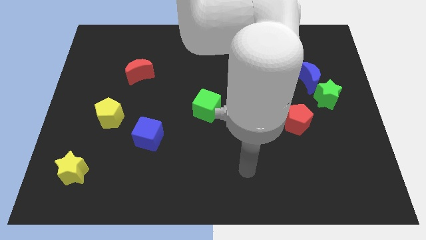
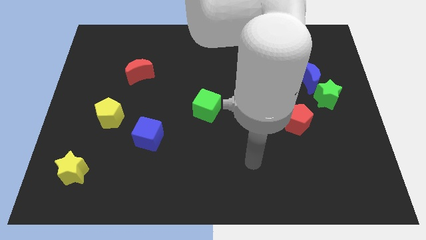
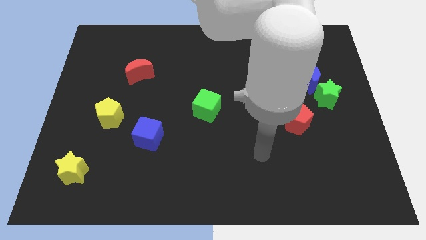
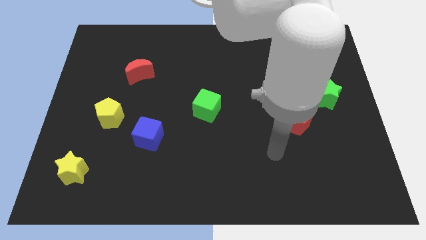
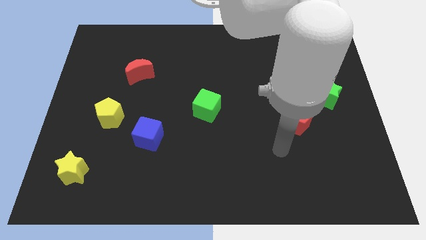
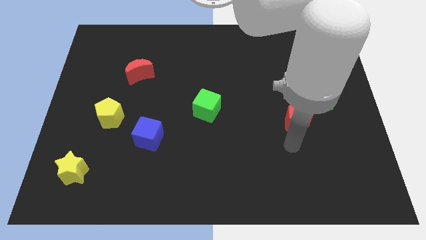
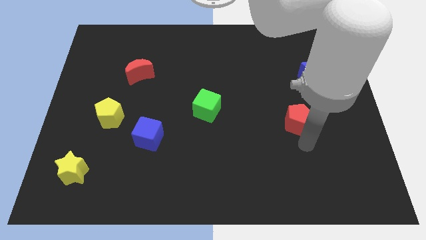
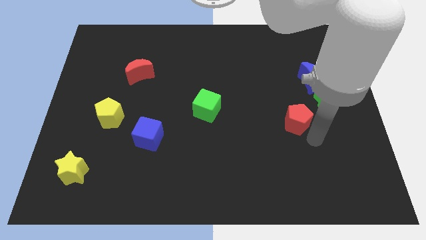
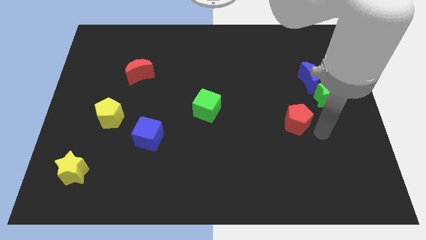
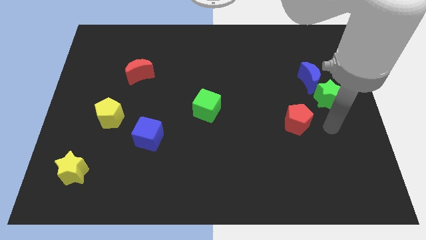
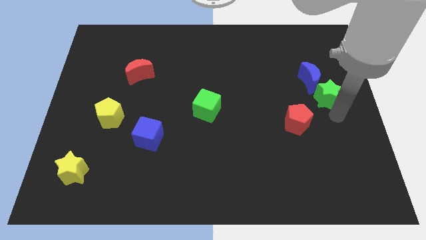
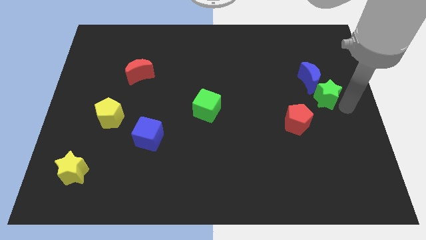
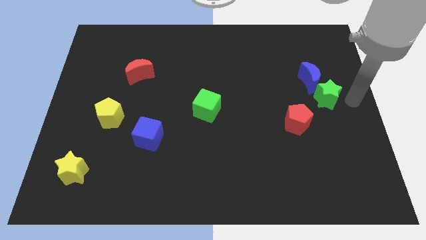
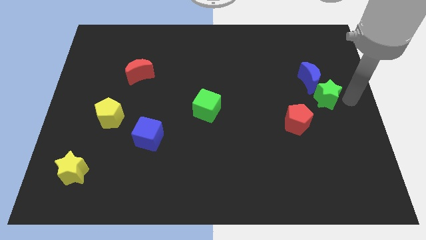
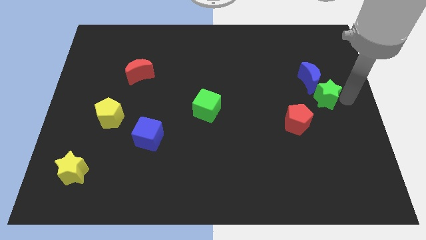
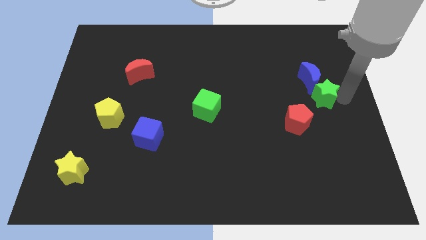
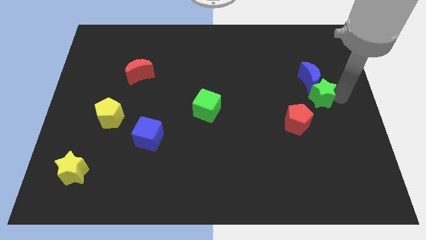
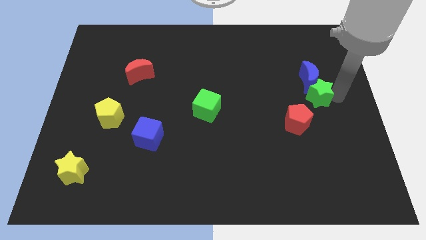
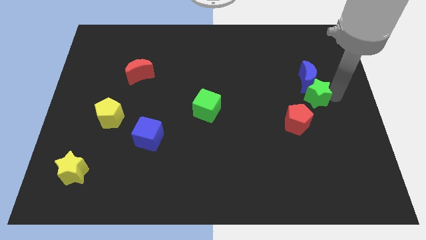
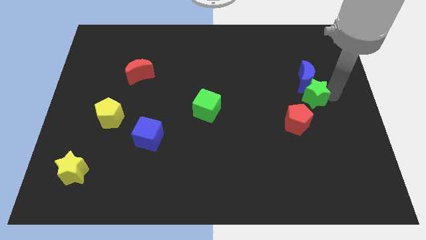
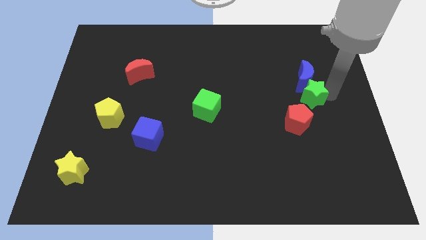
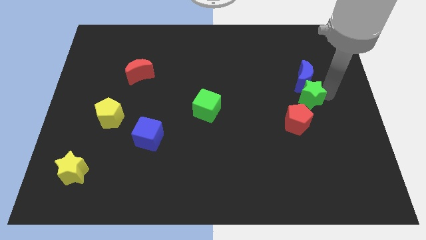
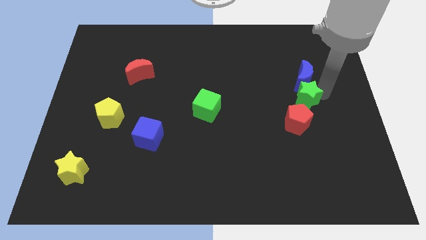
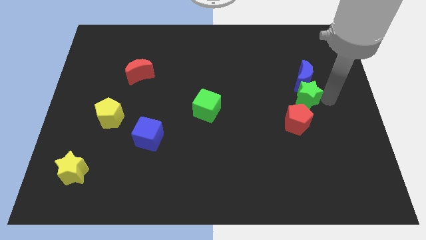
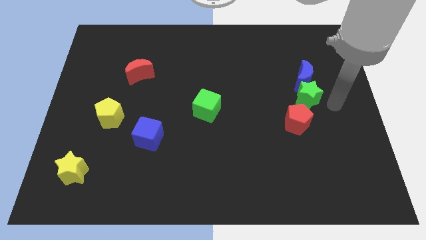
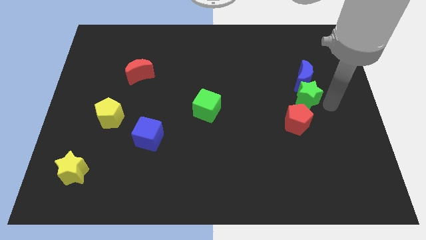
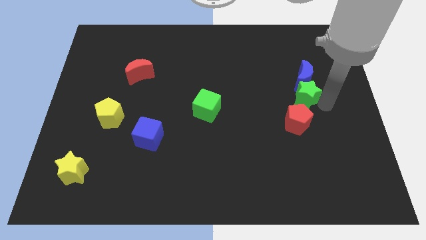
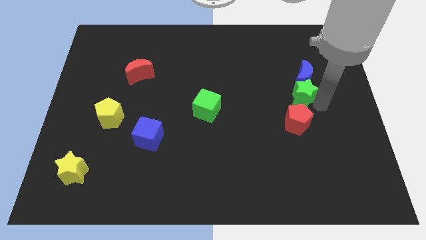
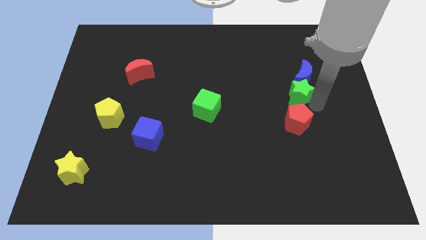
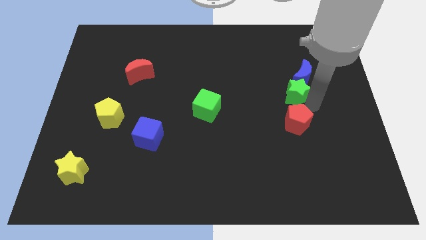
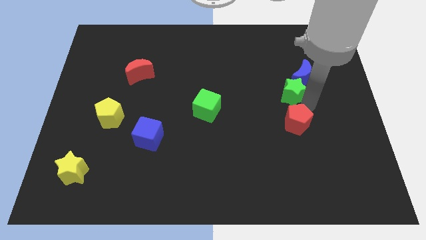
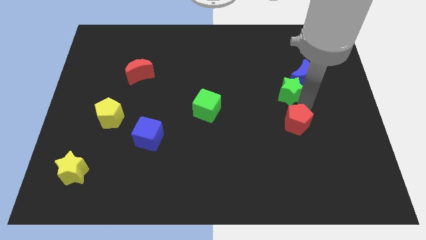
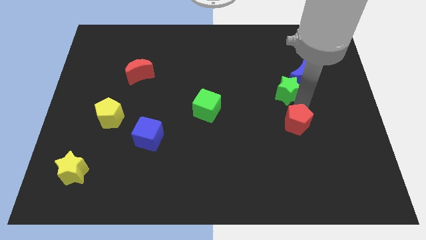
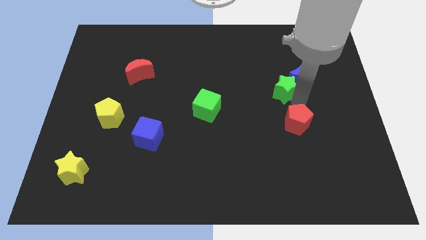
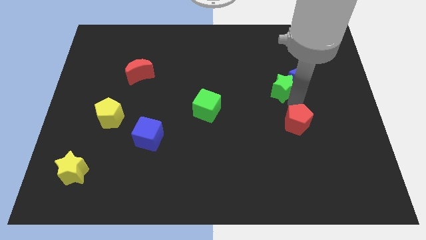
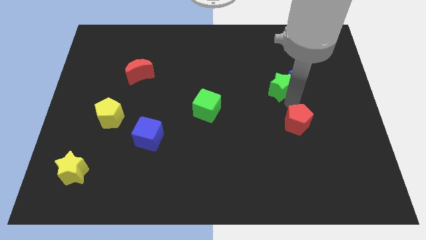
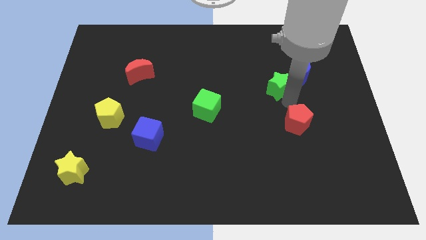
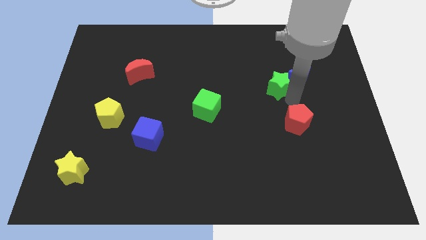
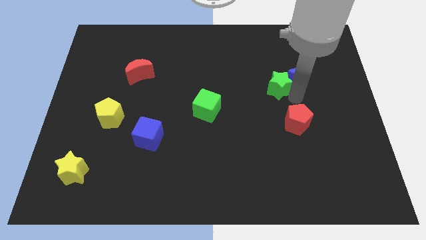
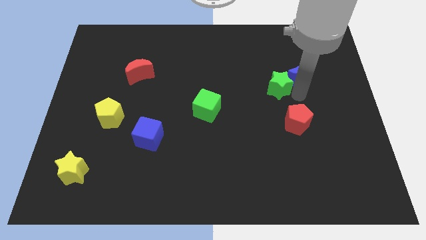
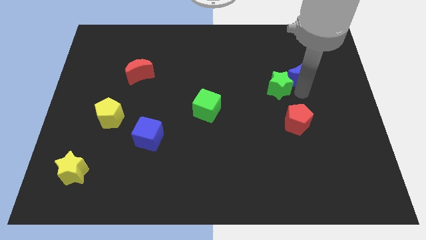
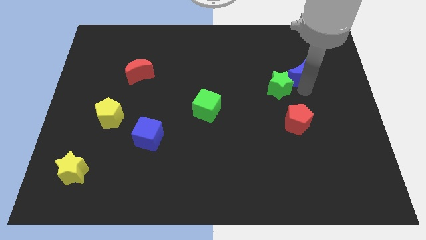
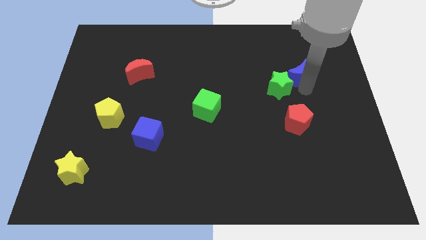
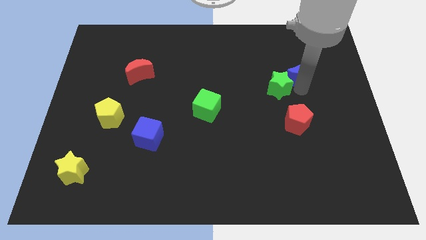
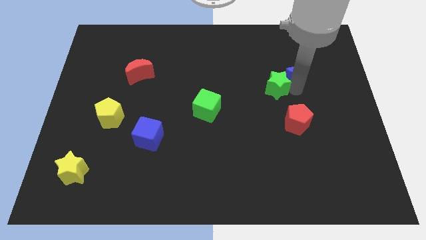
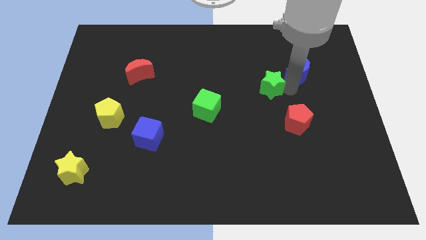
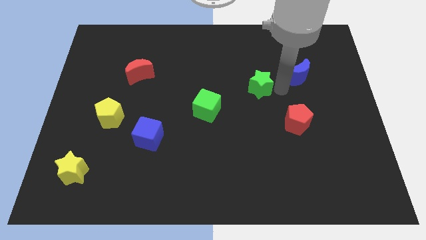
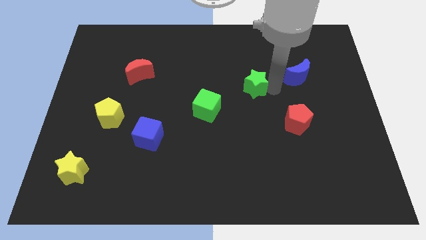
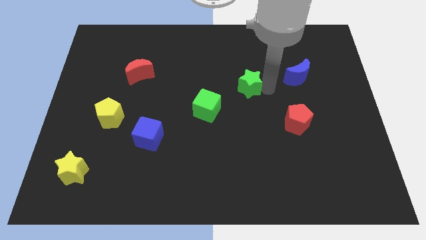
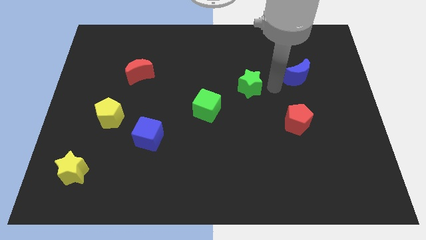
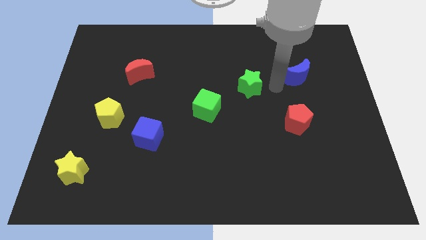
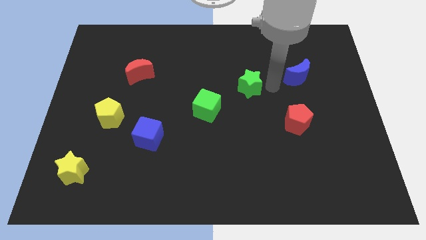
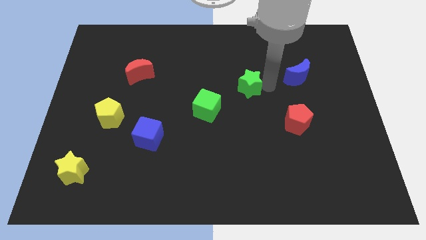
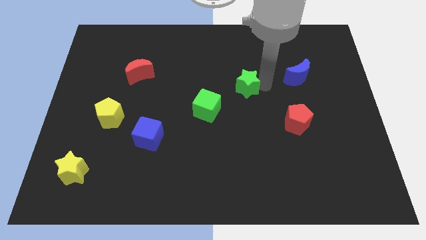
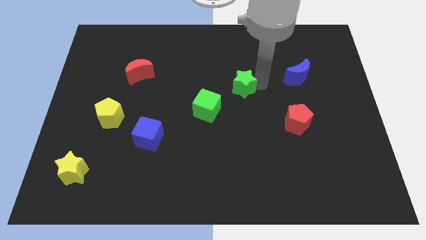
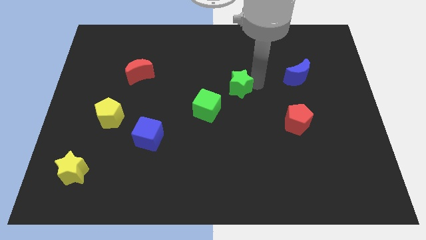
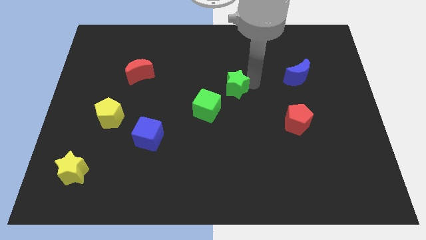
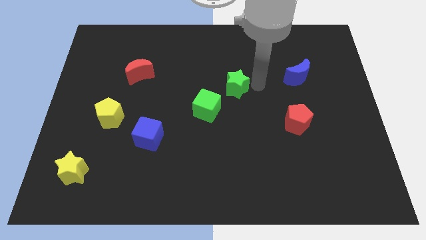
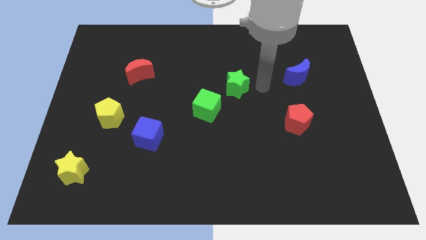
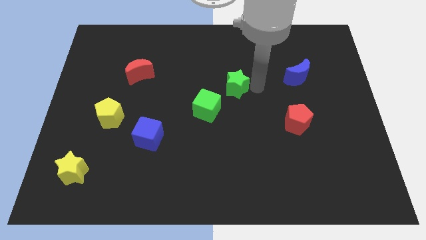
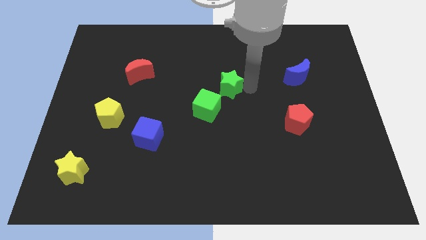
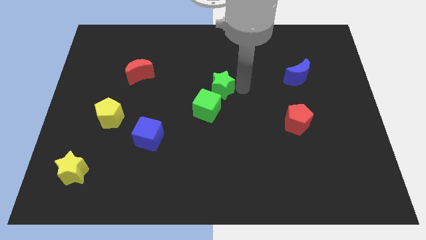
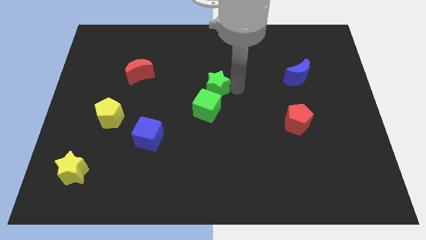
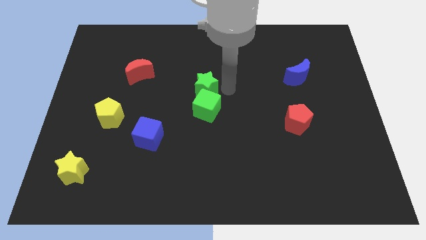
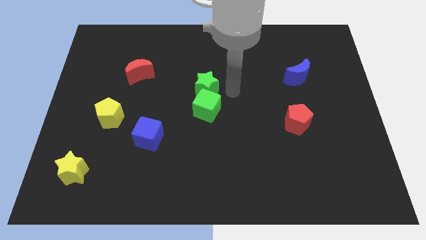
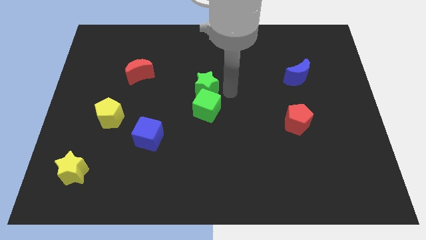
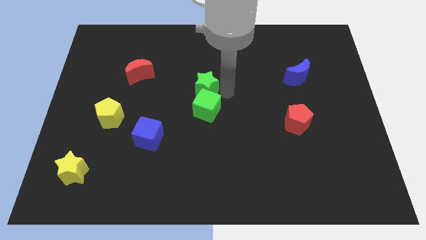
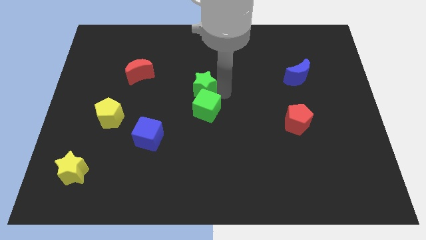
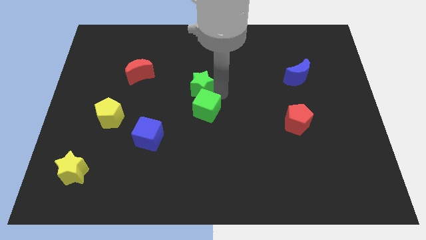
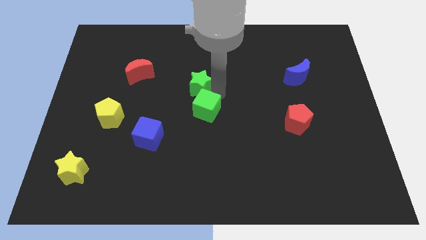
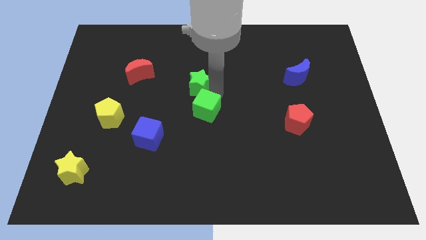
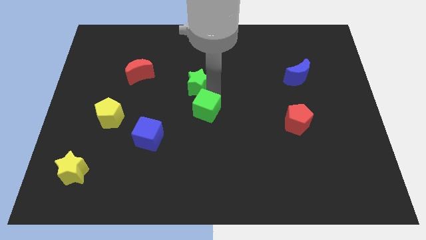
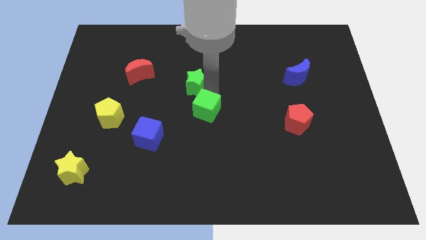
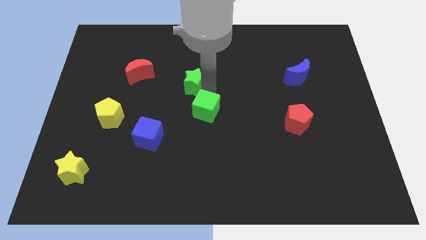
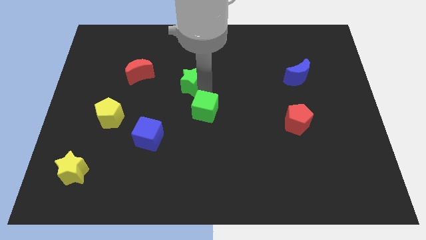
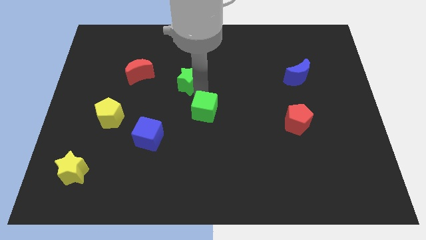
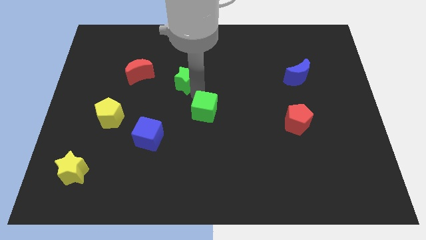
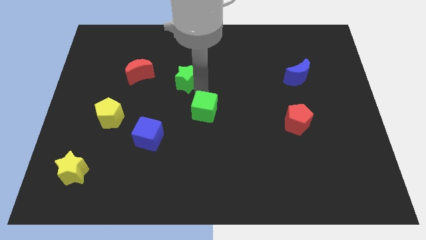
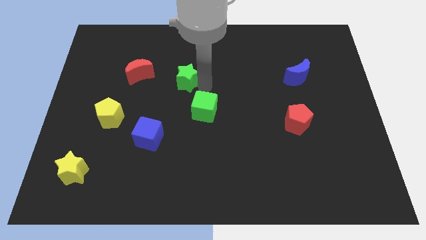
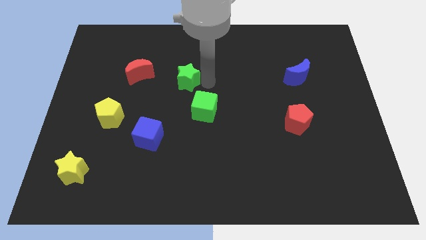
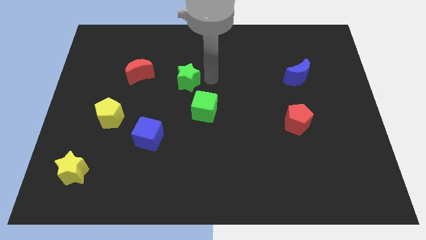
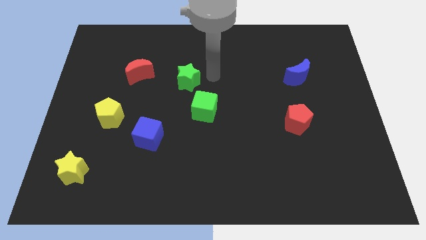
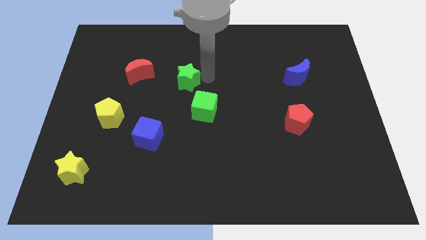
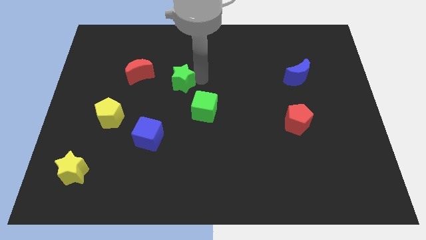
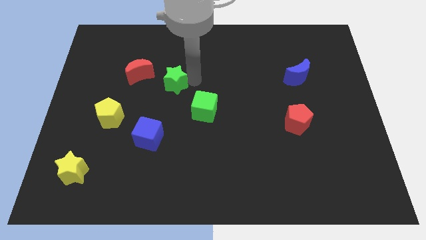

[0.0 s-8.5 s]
put the green star to the bottom right side of the red moon
